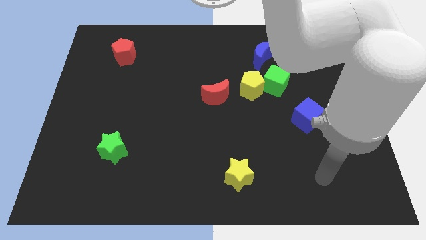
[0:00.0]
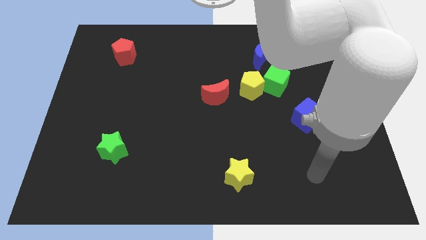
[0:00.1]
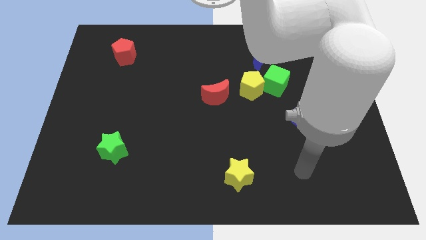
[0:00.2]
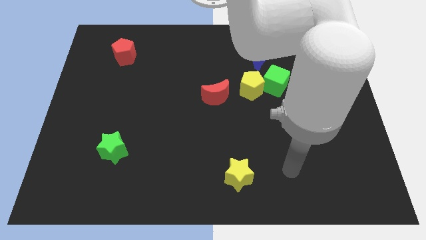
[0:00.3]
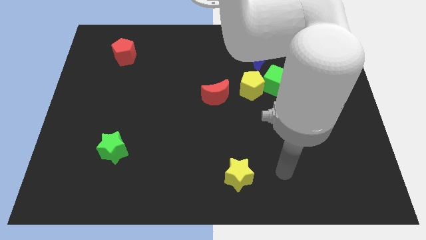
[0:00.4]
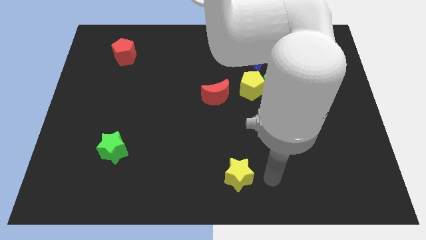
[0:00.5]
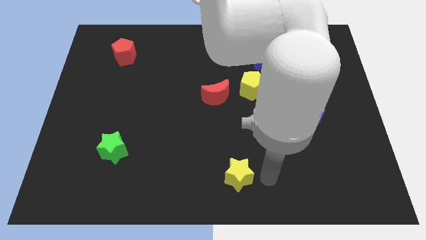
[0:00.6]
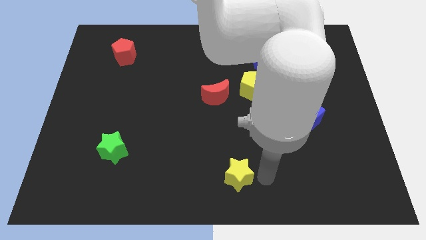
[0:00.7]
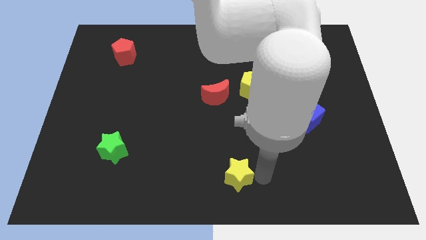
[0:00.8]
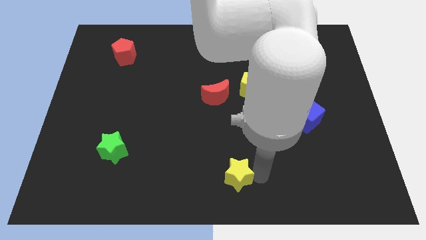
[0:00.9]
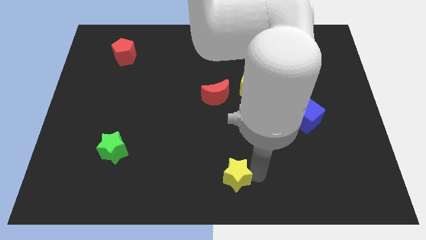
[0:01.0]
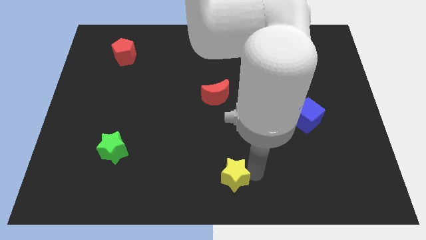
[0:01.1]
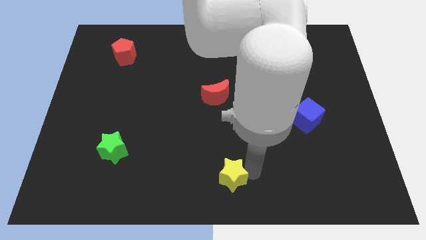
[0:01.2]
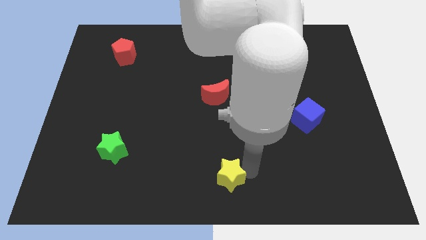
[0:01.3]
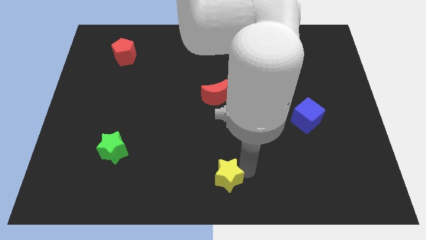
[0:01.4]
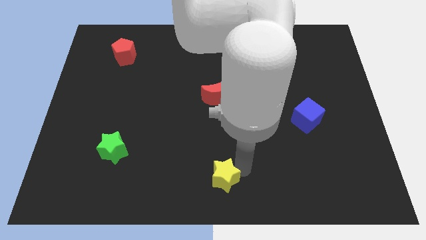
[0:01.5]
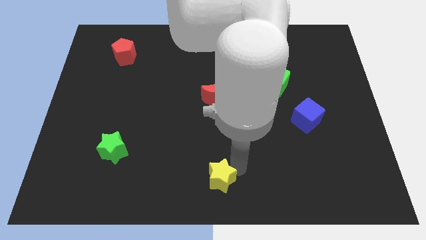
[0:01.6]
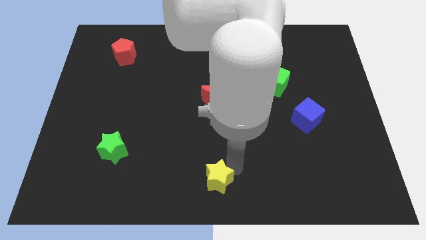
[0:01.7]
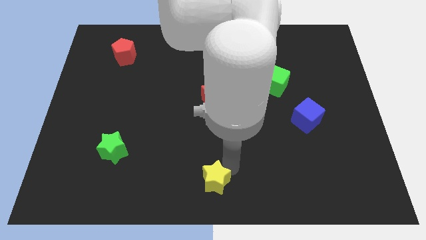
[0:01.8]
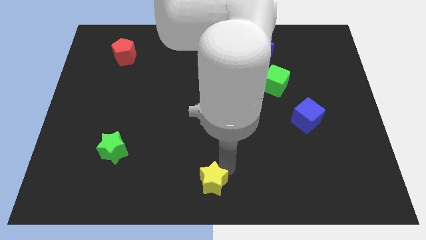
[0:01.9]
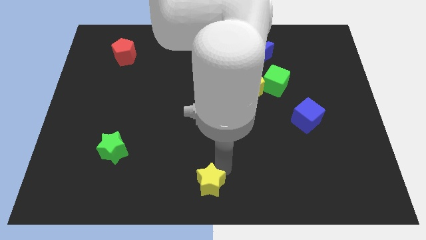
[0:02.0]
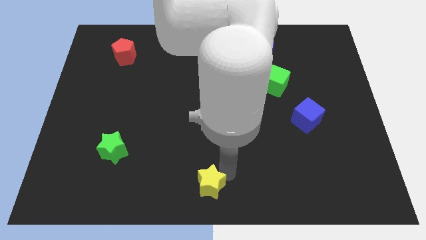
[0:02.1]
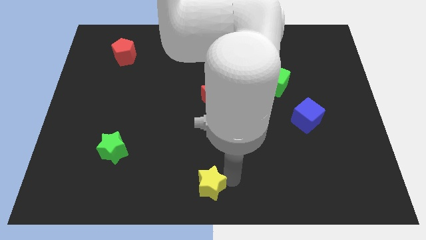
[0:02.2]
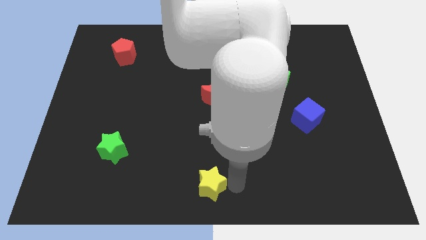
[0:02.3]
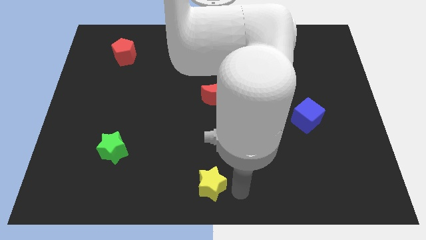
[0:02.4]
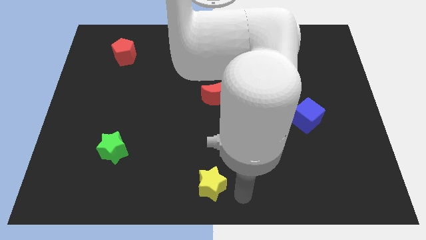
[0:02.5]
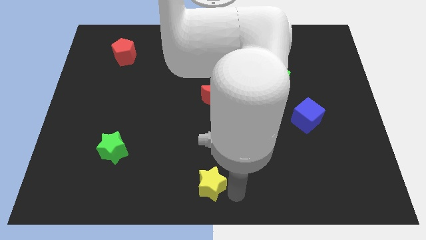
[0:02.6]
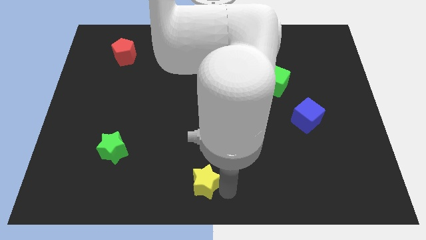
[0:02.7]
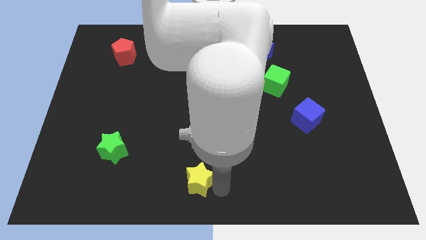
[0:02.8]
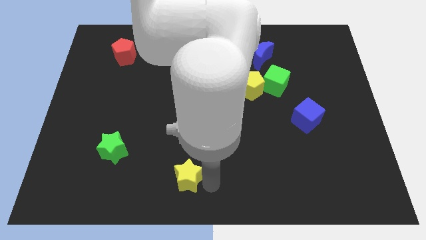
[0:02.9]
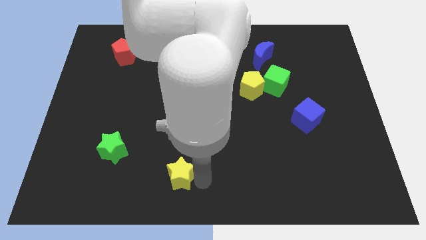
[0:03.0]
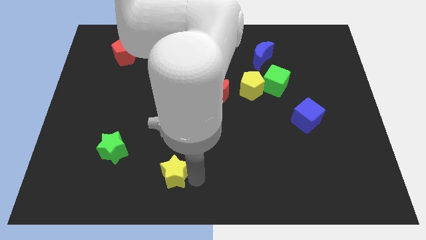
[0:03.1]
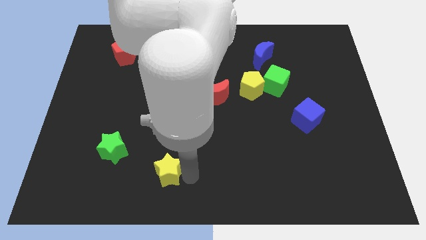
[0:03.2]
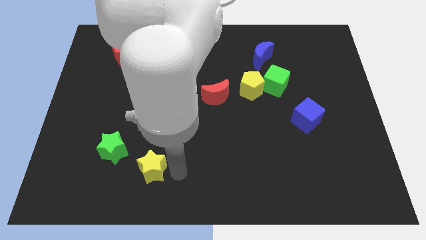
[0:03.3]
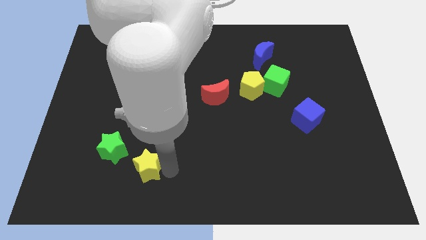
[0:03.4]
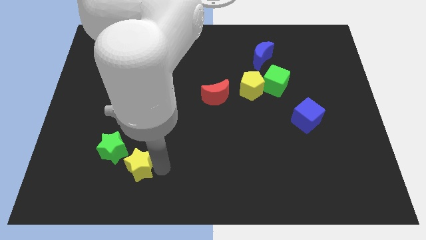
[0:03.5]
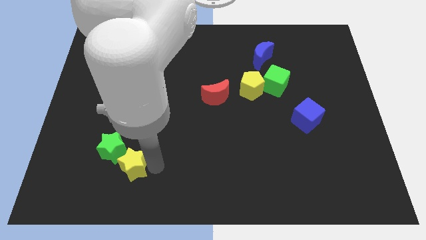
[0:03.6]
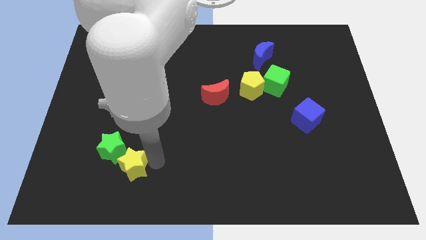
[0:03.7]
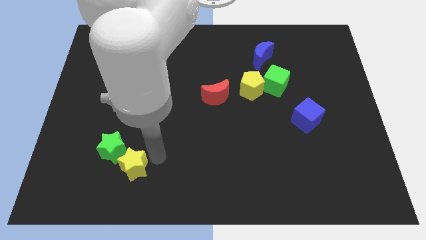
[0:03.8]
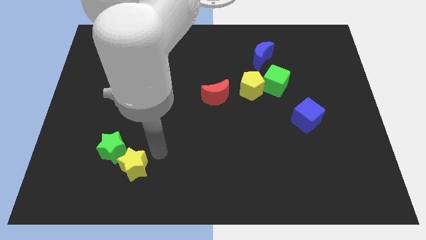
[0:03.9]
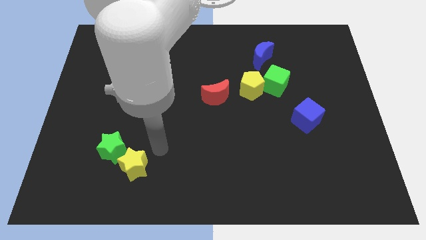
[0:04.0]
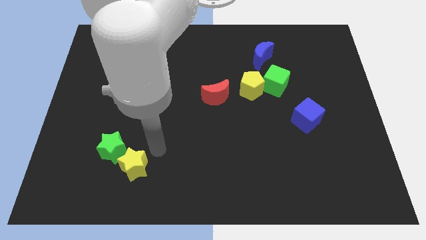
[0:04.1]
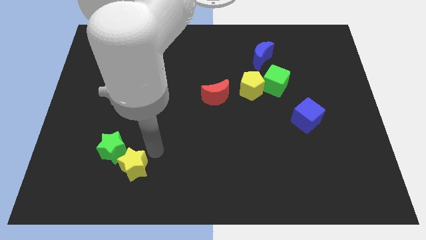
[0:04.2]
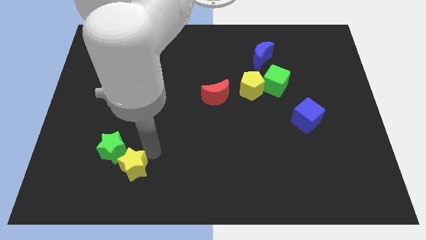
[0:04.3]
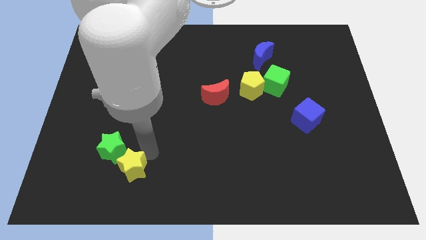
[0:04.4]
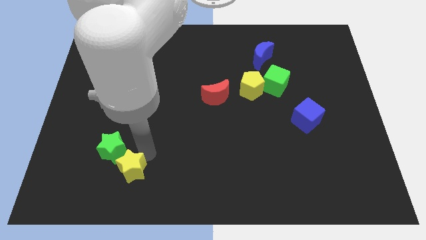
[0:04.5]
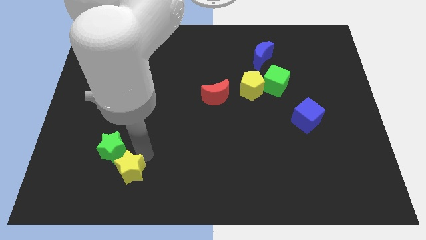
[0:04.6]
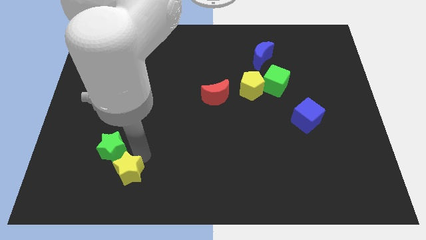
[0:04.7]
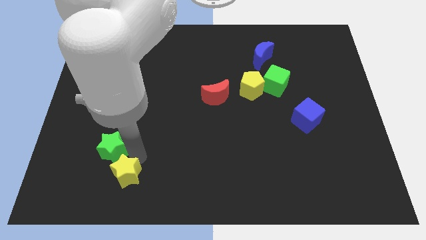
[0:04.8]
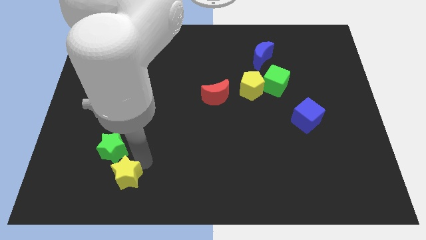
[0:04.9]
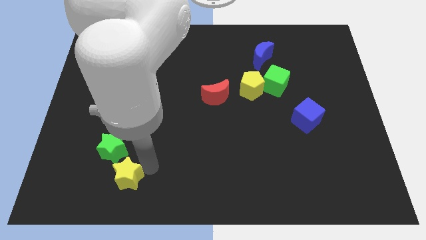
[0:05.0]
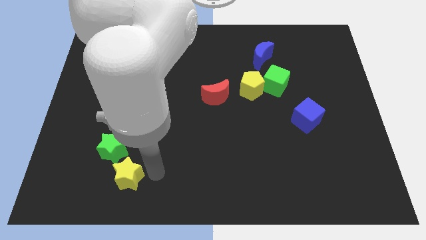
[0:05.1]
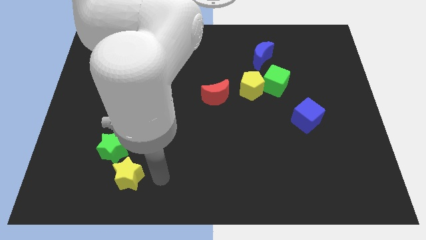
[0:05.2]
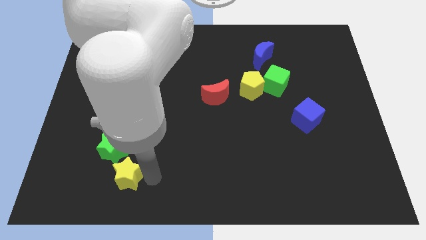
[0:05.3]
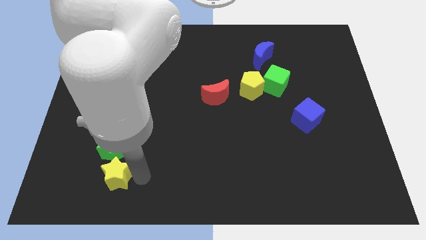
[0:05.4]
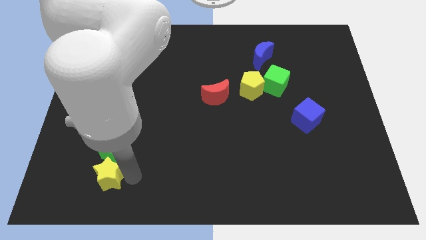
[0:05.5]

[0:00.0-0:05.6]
slide the yellow star to the bottom left side of the green star

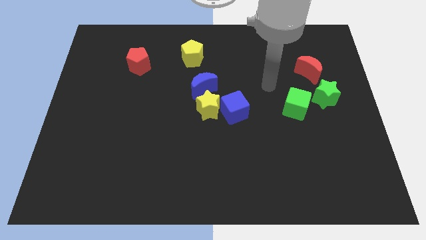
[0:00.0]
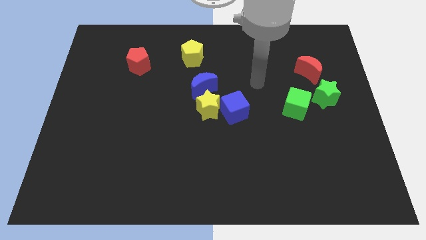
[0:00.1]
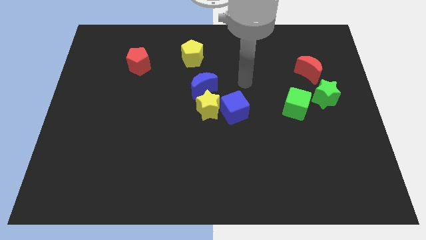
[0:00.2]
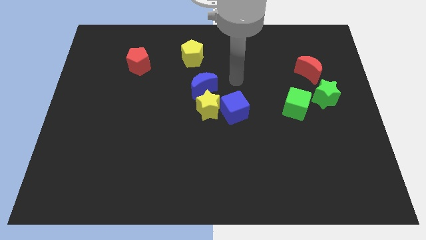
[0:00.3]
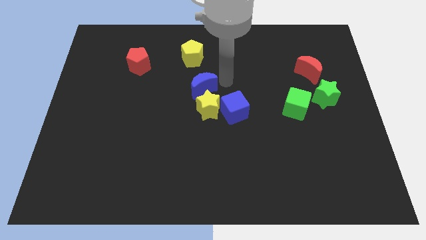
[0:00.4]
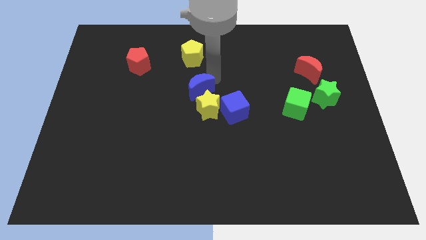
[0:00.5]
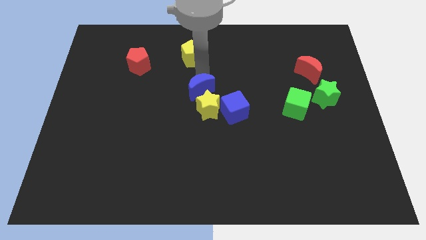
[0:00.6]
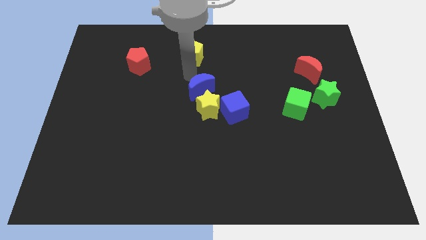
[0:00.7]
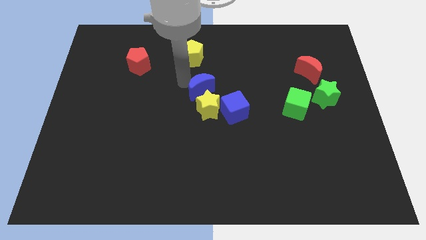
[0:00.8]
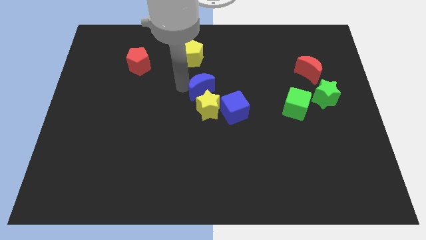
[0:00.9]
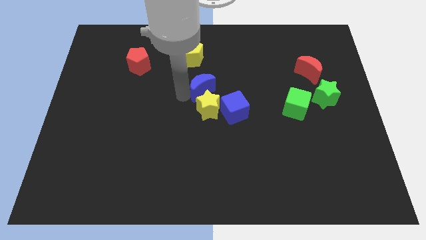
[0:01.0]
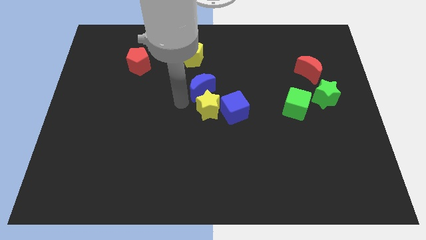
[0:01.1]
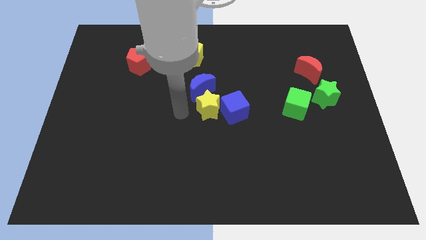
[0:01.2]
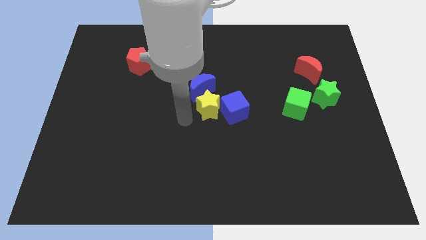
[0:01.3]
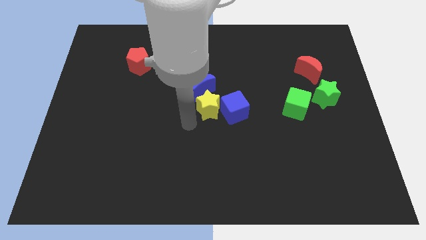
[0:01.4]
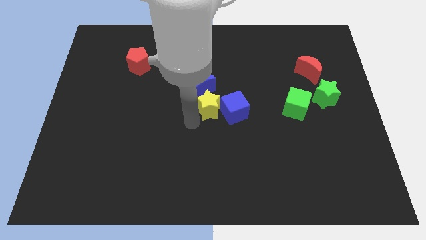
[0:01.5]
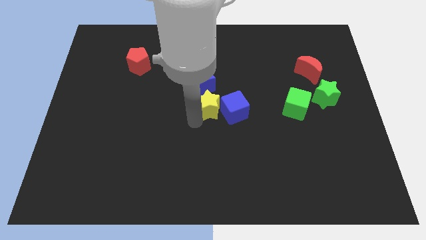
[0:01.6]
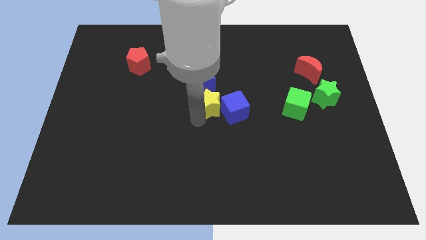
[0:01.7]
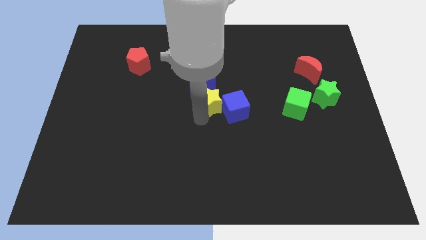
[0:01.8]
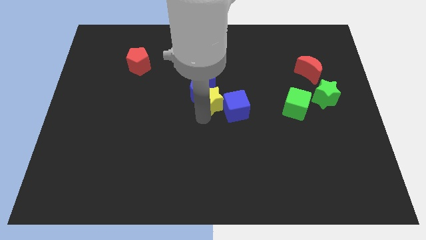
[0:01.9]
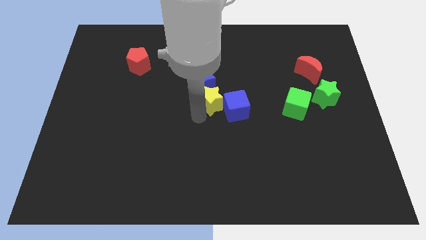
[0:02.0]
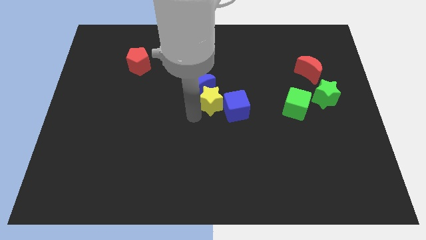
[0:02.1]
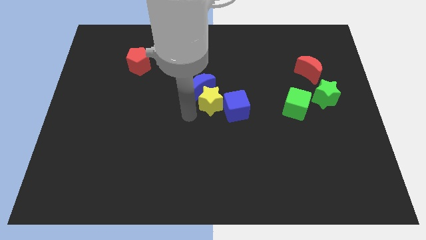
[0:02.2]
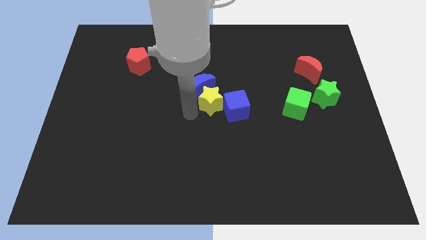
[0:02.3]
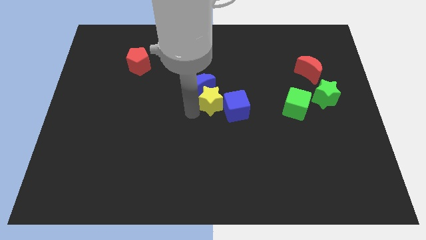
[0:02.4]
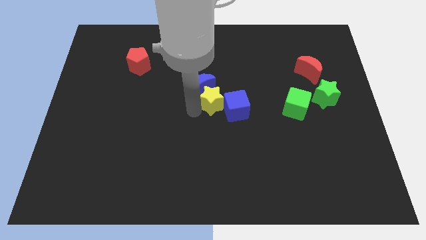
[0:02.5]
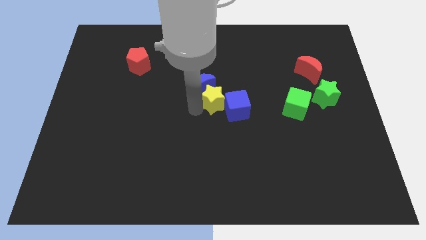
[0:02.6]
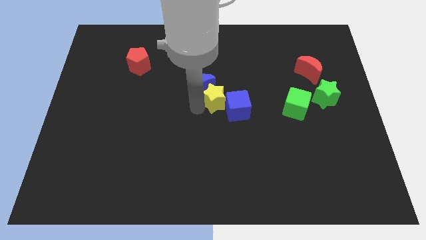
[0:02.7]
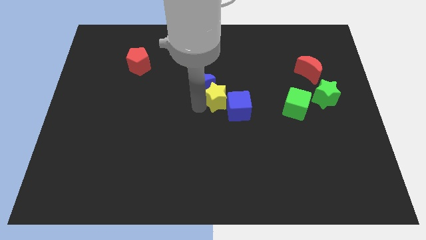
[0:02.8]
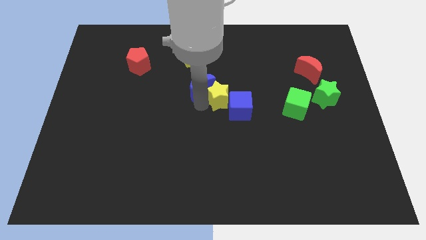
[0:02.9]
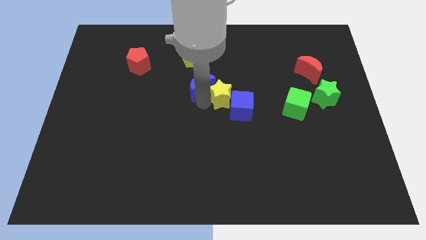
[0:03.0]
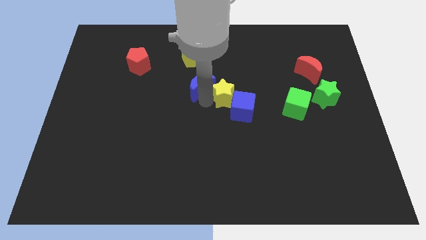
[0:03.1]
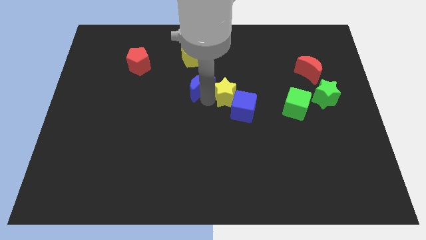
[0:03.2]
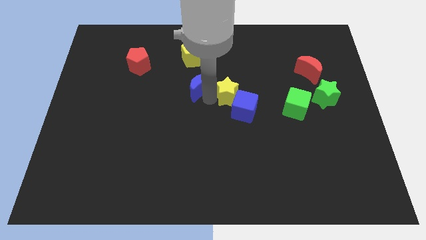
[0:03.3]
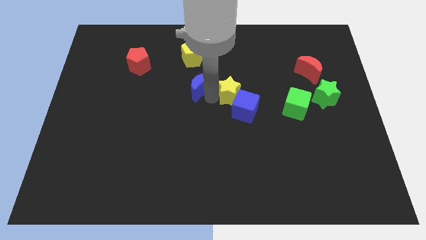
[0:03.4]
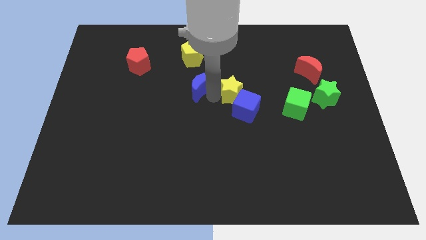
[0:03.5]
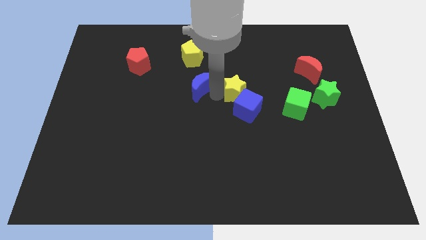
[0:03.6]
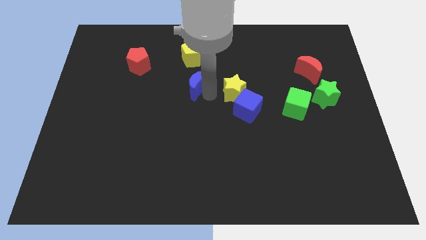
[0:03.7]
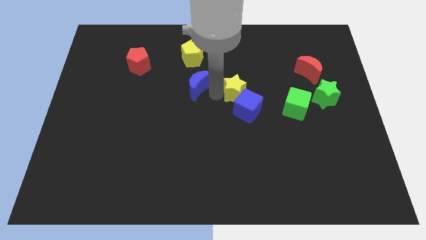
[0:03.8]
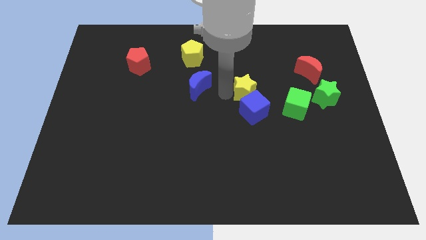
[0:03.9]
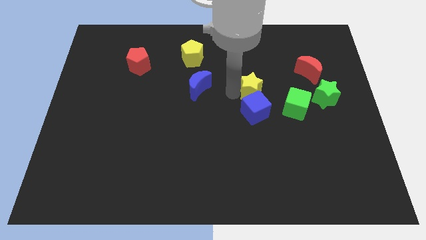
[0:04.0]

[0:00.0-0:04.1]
put the yellow star diagonally up and to the left of the green cube
